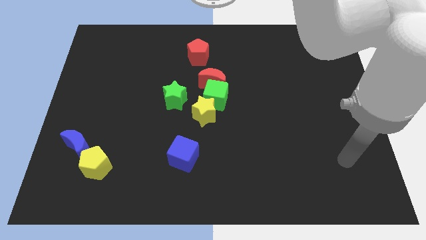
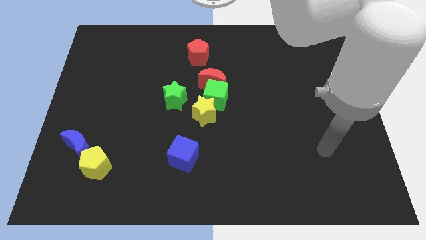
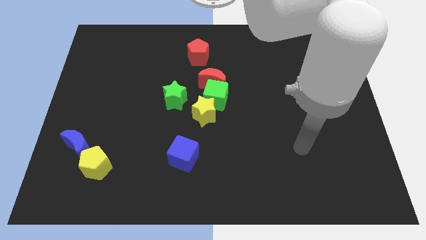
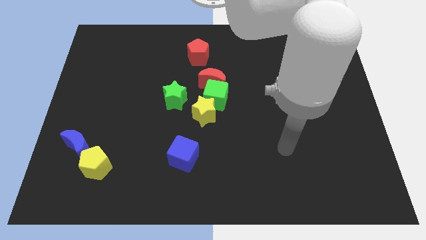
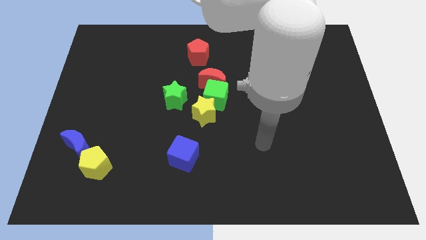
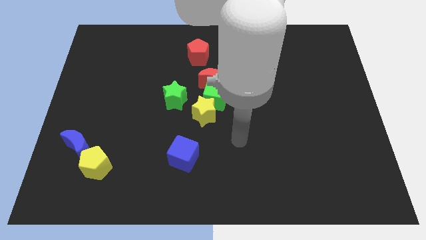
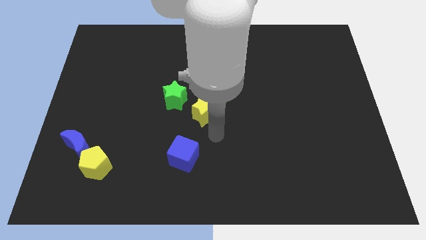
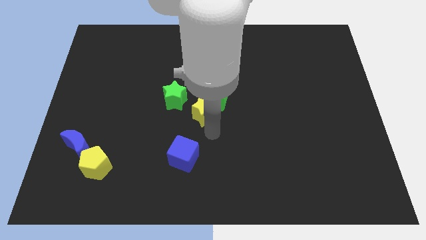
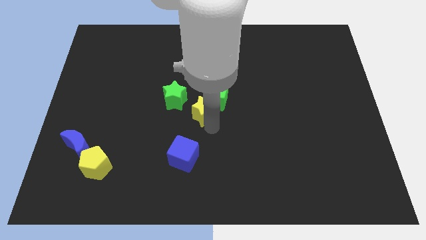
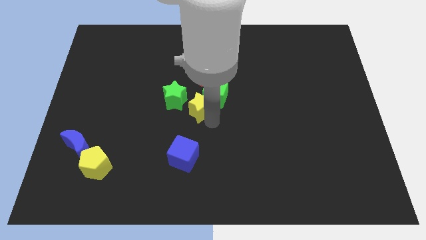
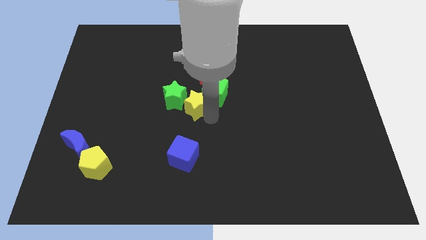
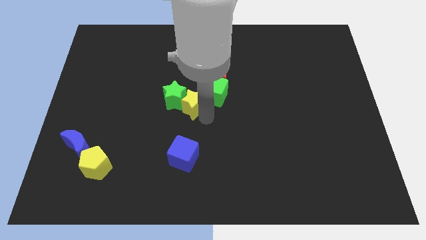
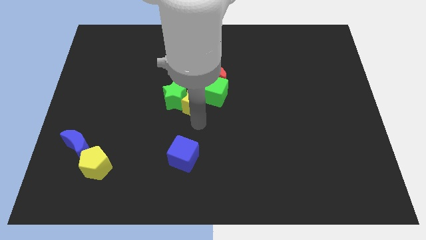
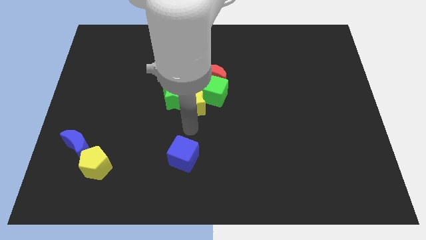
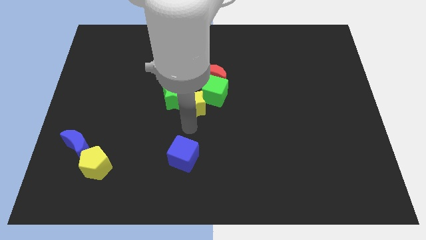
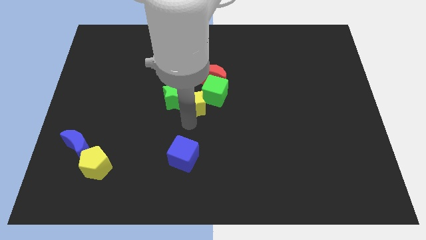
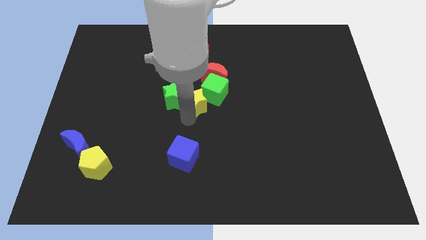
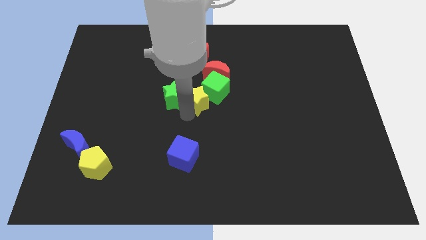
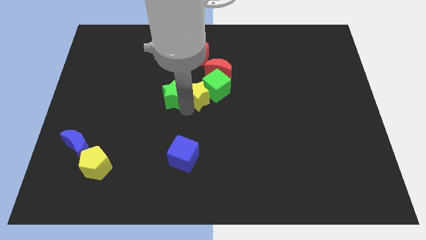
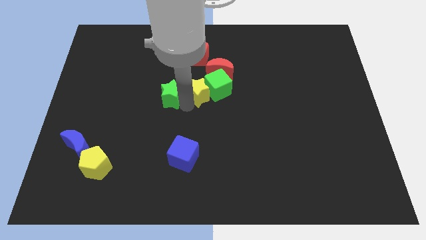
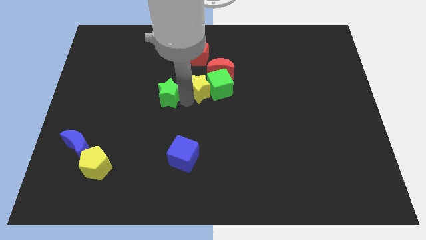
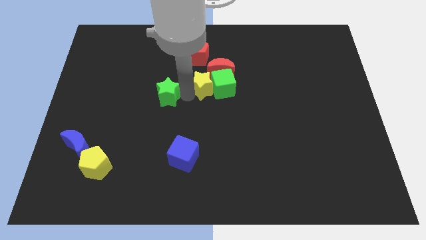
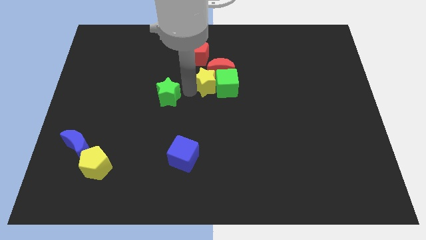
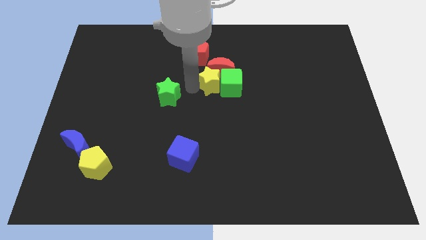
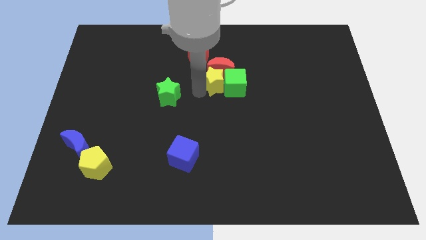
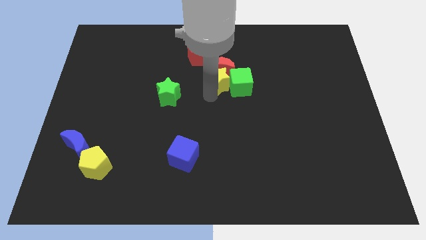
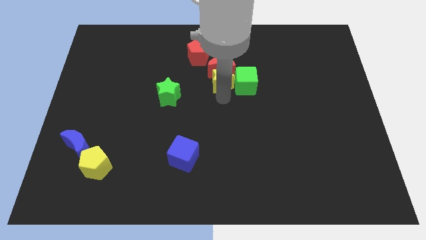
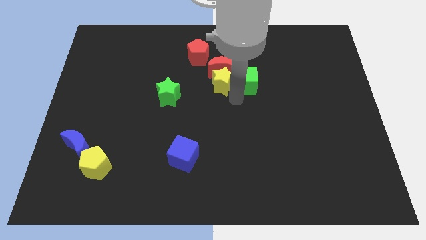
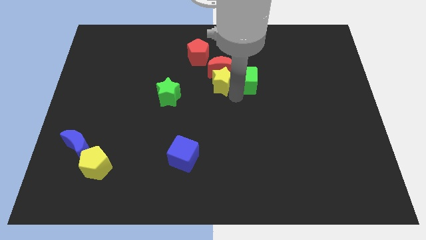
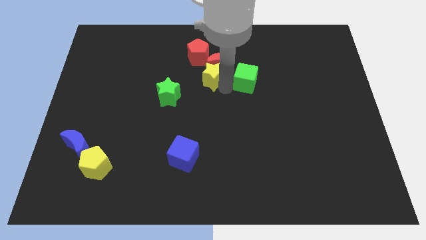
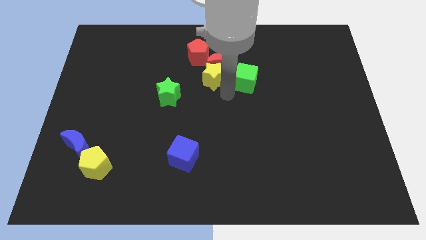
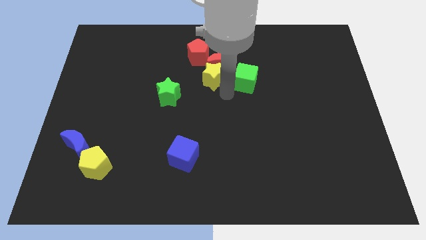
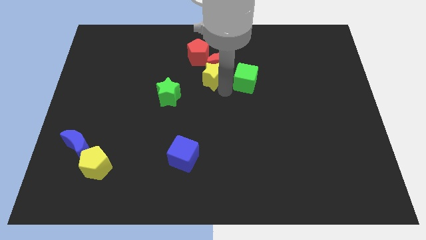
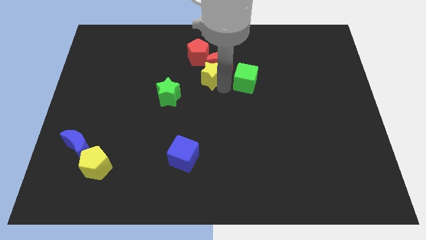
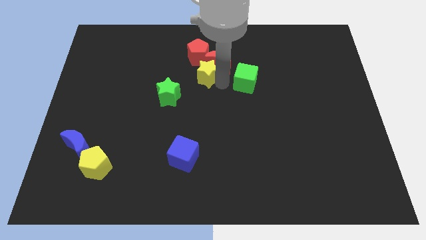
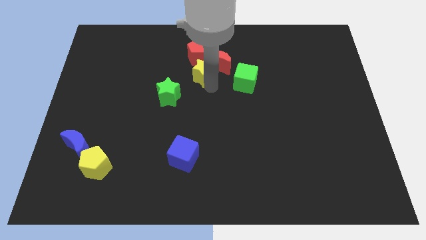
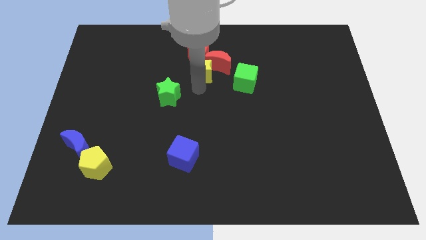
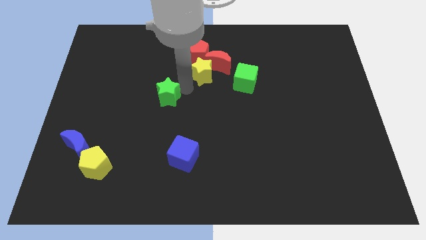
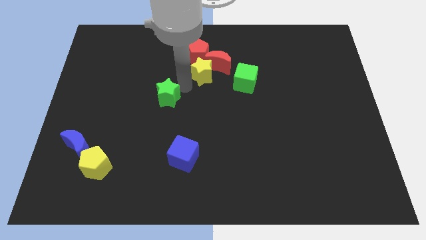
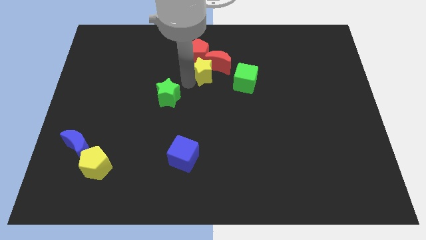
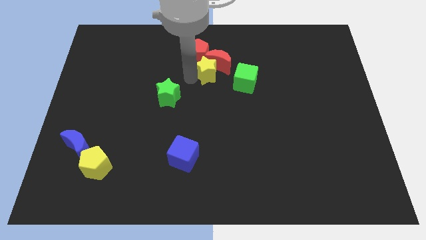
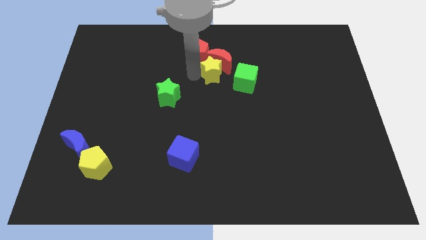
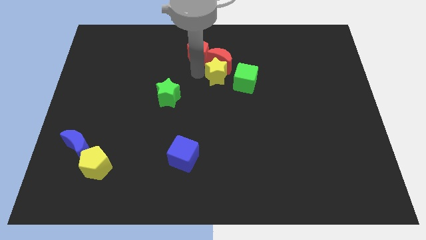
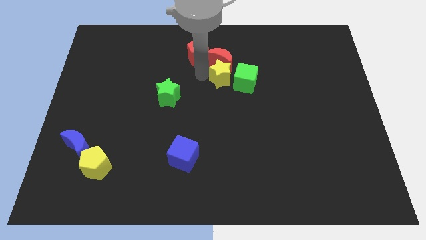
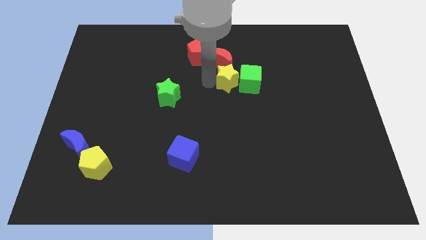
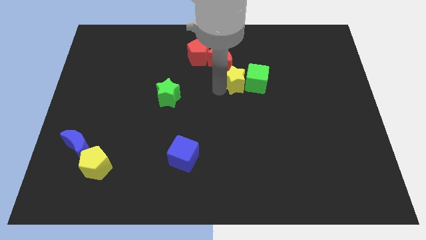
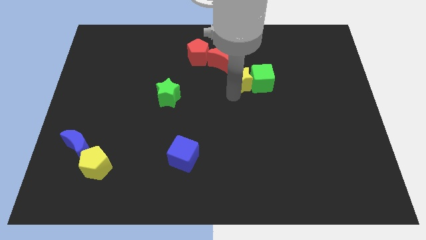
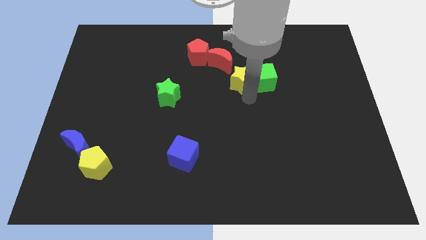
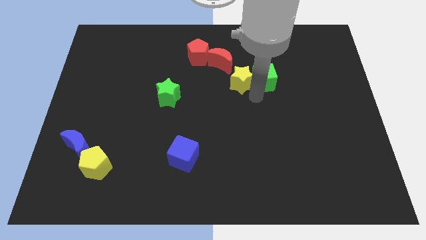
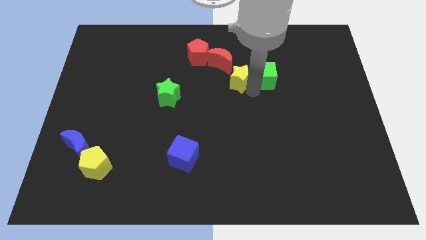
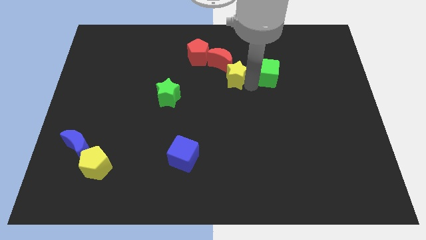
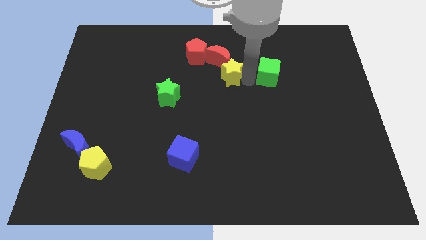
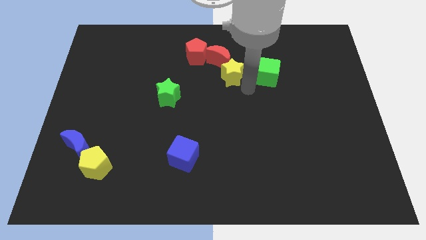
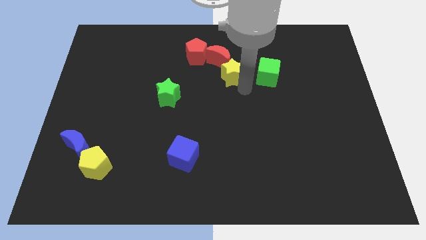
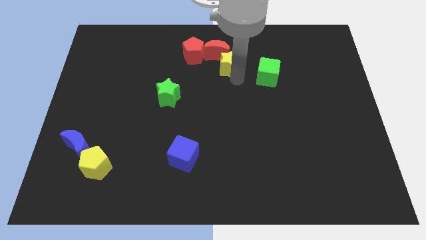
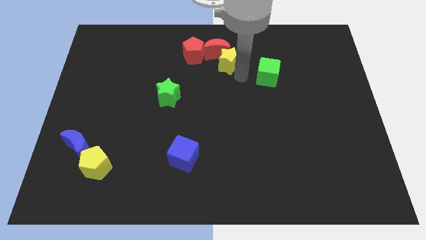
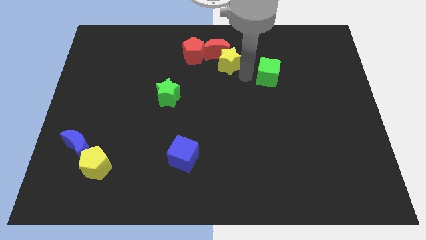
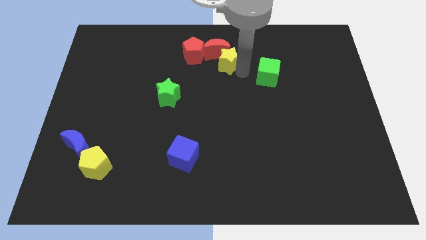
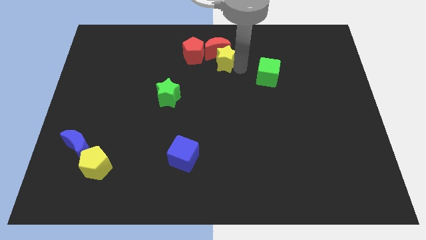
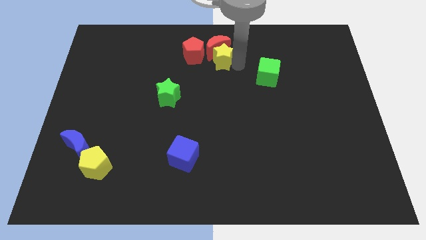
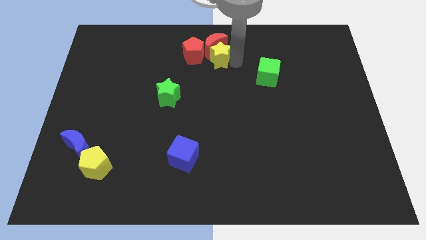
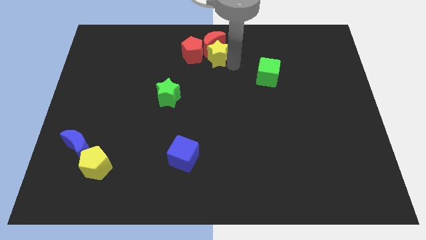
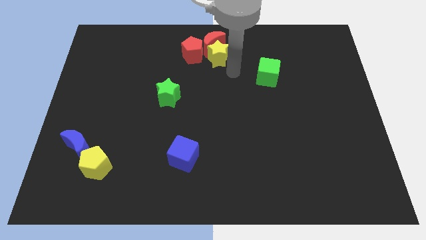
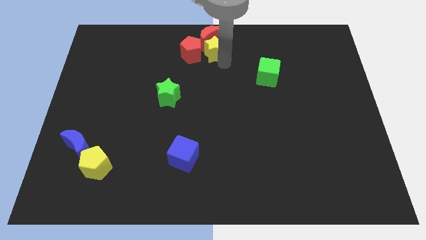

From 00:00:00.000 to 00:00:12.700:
slide the yellow star to the top side
